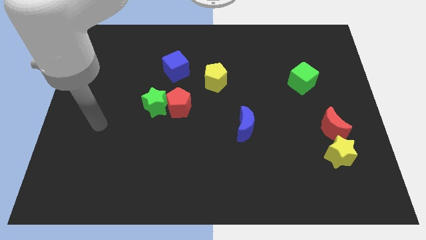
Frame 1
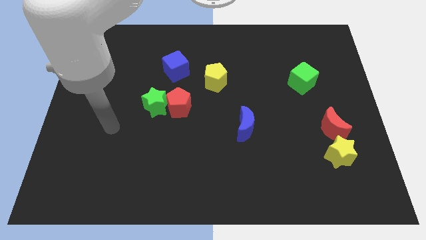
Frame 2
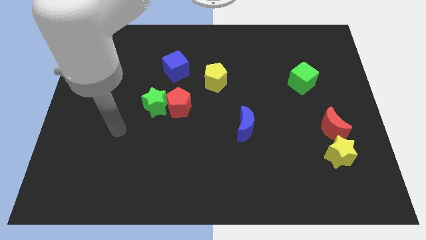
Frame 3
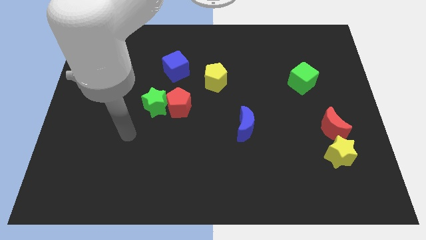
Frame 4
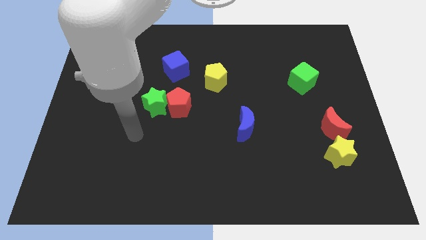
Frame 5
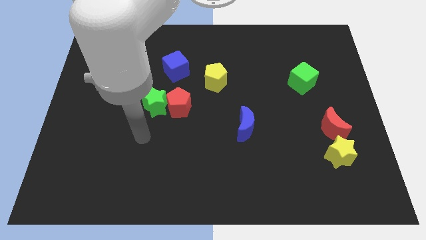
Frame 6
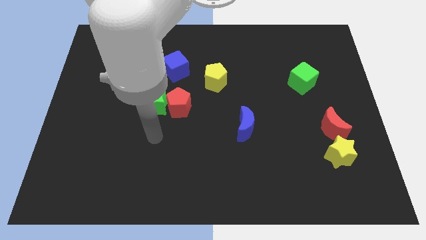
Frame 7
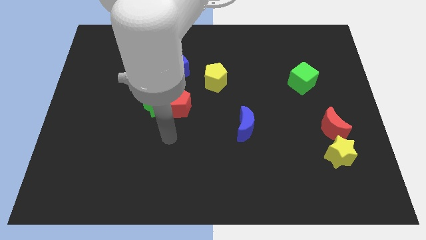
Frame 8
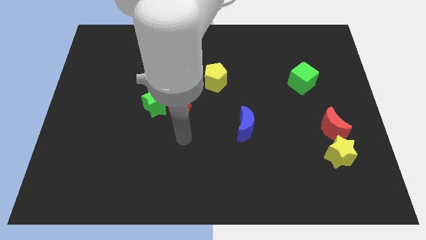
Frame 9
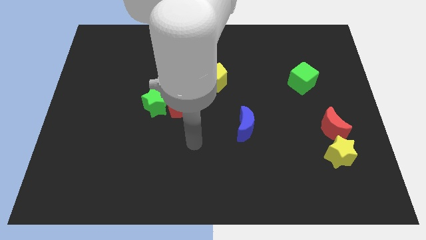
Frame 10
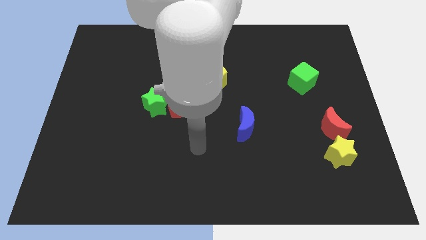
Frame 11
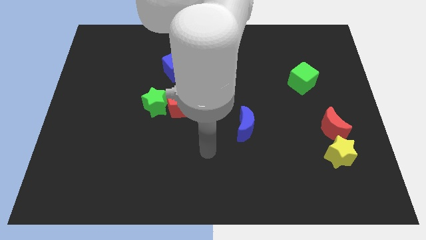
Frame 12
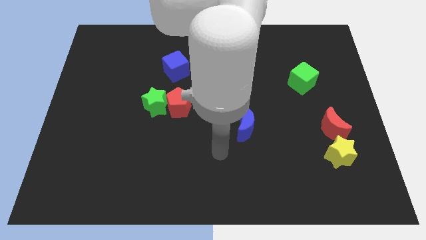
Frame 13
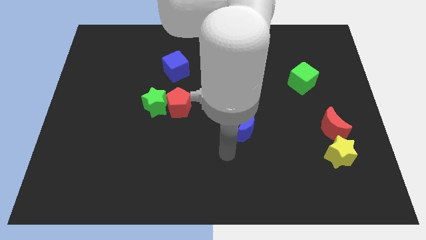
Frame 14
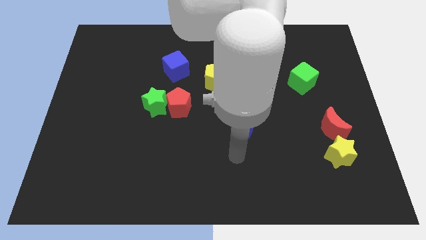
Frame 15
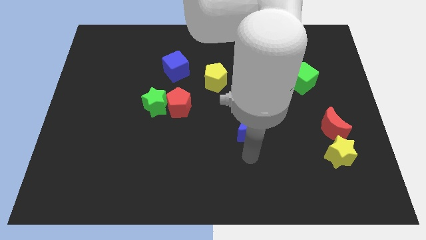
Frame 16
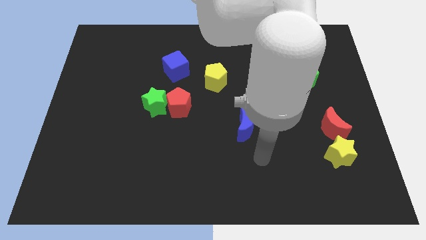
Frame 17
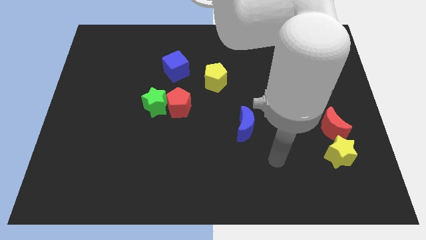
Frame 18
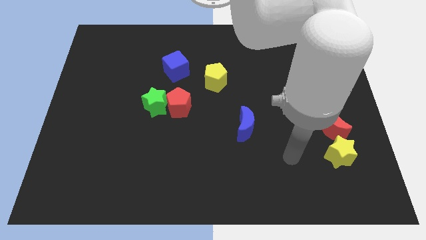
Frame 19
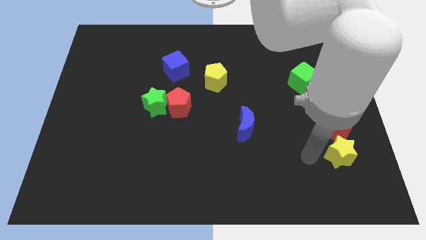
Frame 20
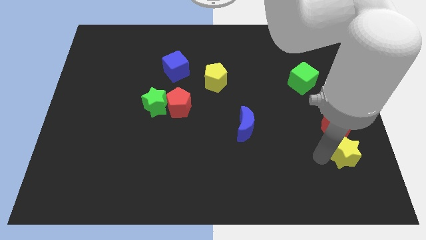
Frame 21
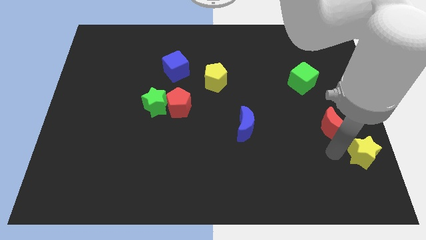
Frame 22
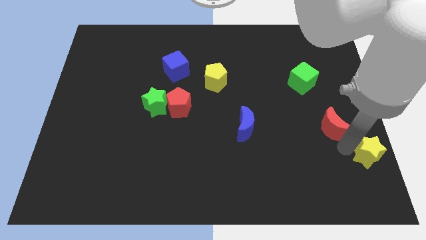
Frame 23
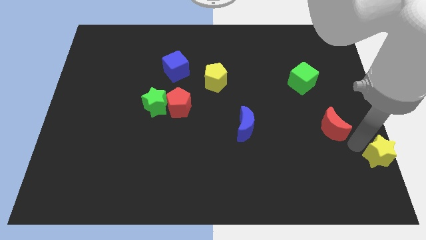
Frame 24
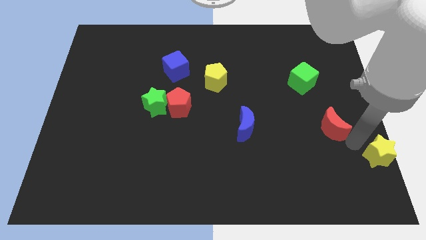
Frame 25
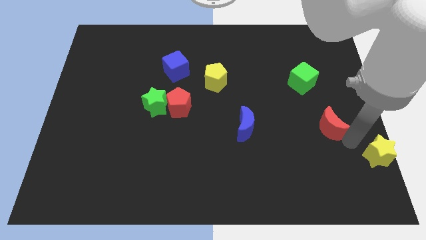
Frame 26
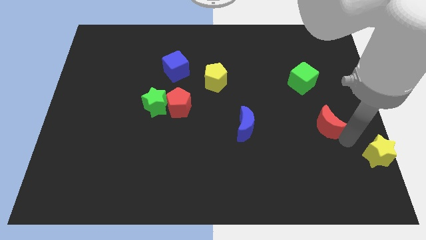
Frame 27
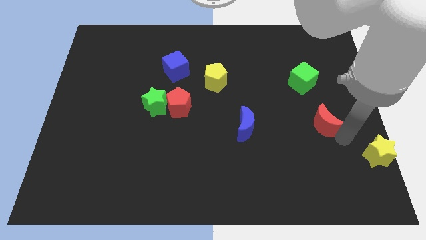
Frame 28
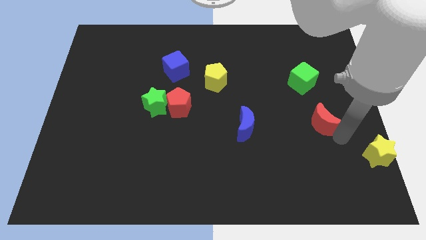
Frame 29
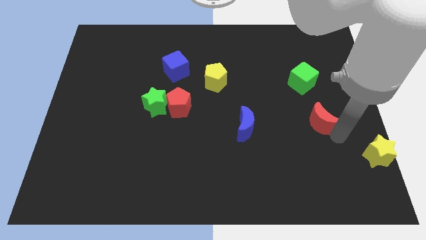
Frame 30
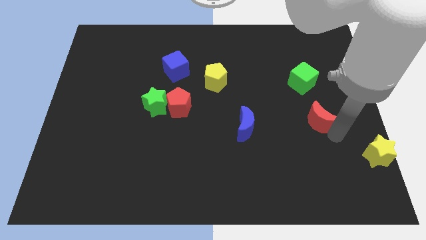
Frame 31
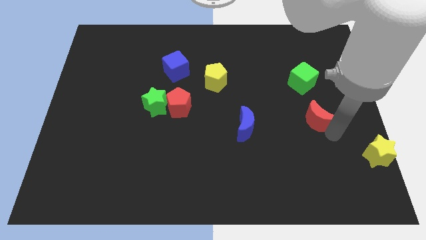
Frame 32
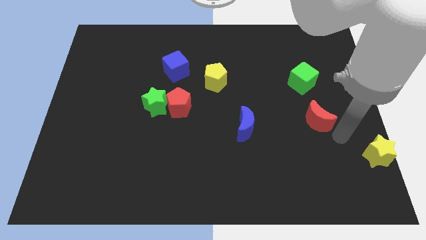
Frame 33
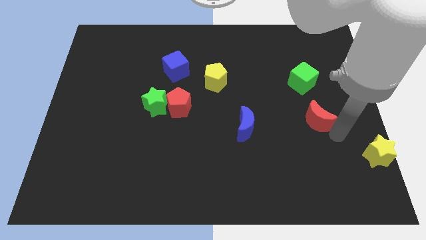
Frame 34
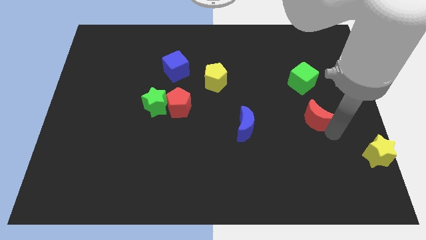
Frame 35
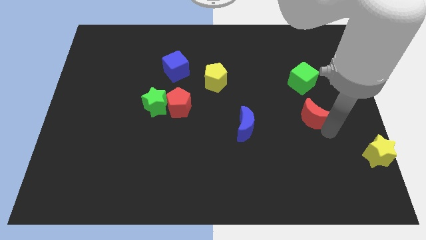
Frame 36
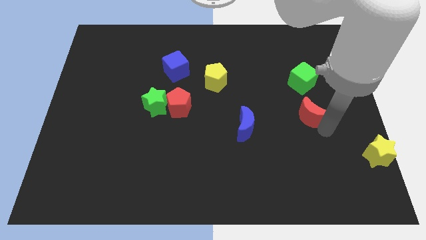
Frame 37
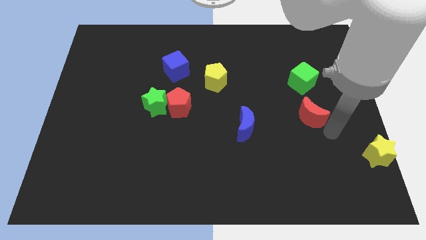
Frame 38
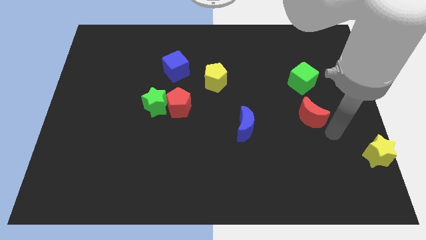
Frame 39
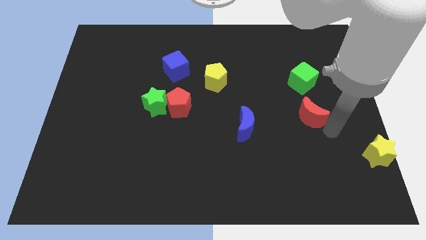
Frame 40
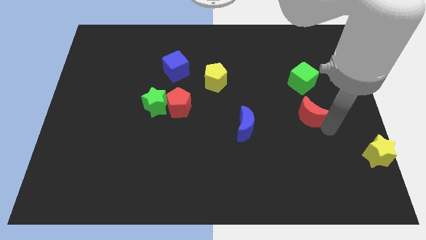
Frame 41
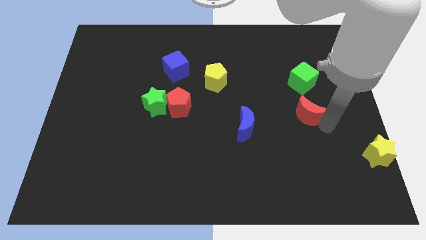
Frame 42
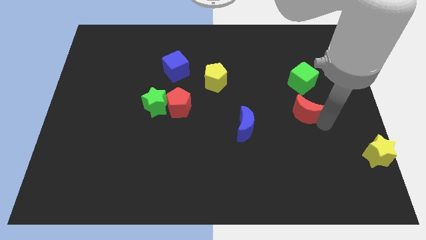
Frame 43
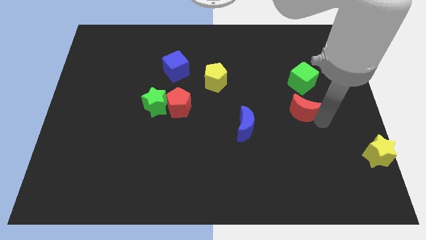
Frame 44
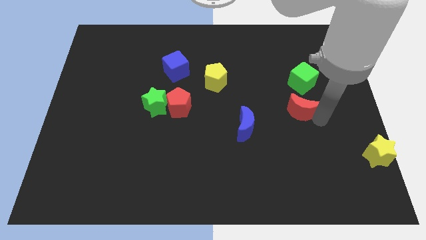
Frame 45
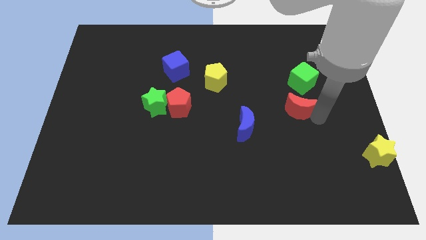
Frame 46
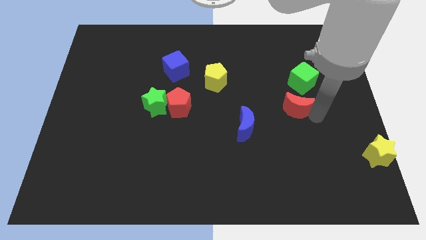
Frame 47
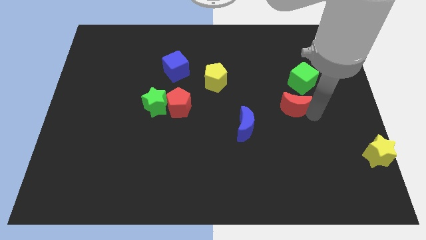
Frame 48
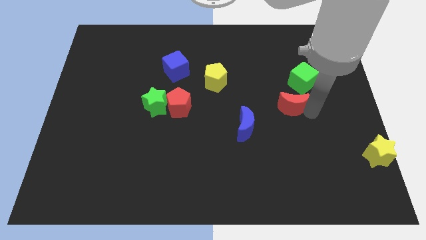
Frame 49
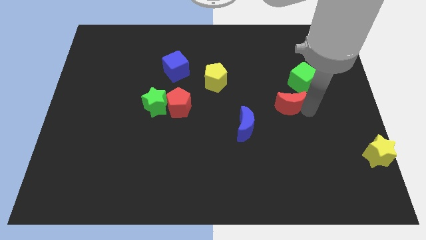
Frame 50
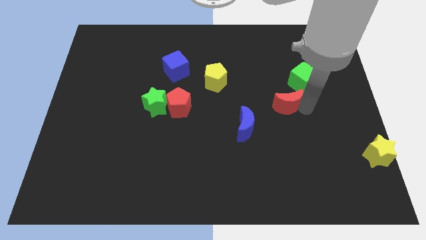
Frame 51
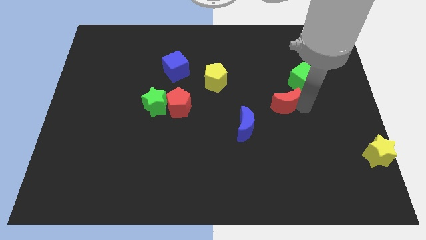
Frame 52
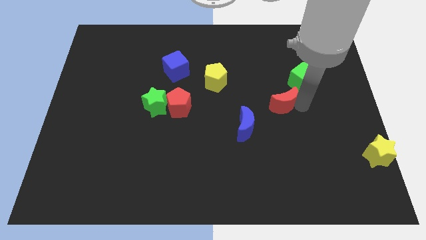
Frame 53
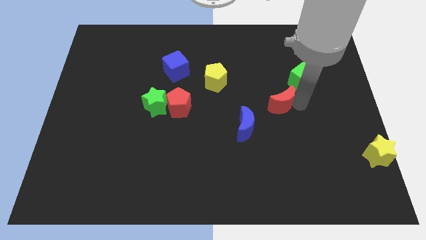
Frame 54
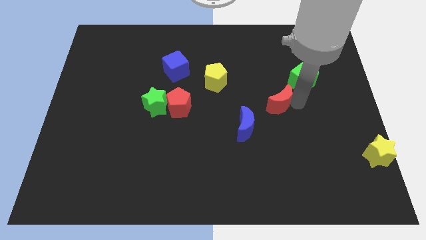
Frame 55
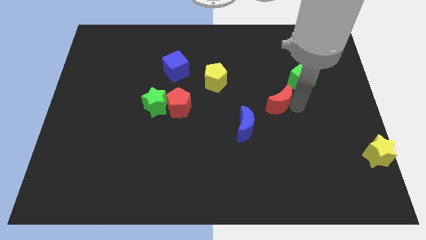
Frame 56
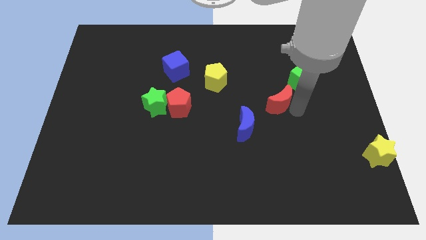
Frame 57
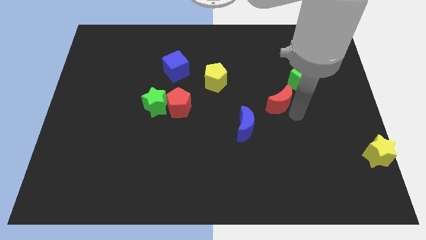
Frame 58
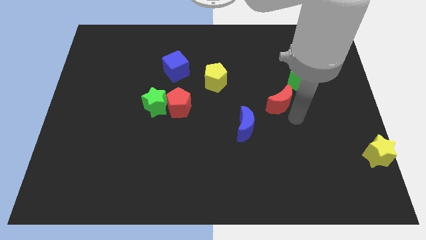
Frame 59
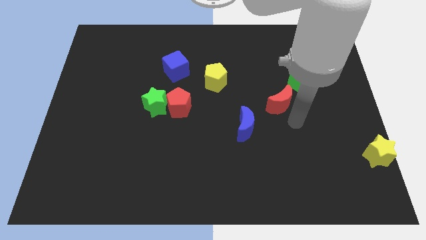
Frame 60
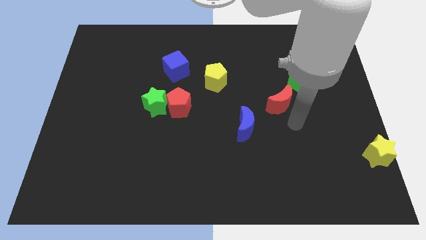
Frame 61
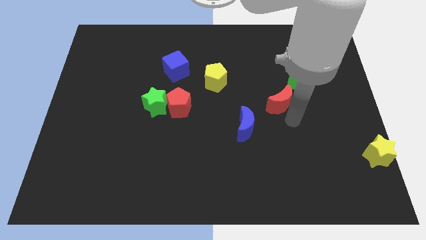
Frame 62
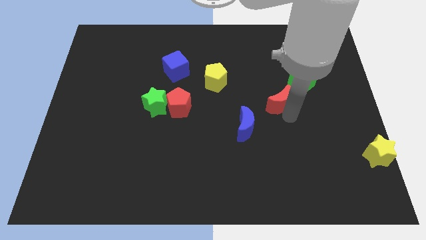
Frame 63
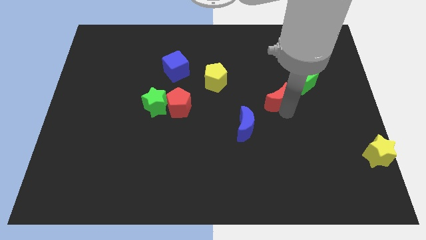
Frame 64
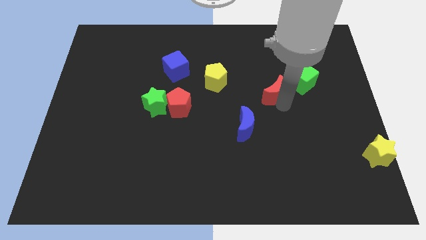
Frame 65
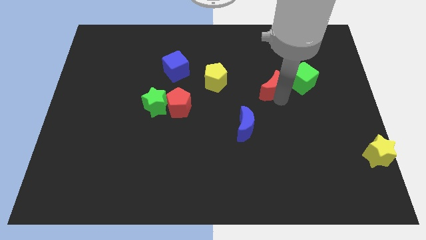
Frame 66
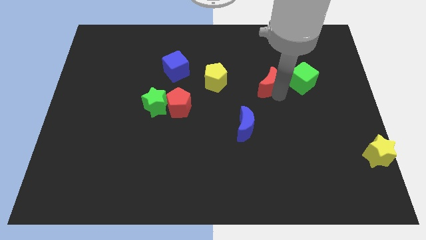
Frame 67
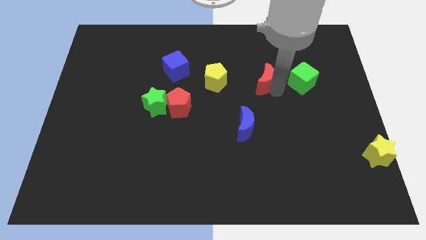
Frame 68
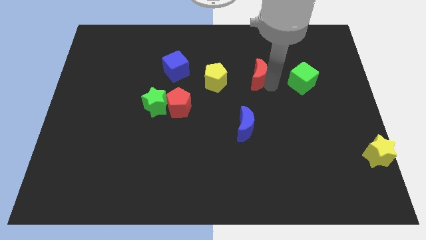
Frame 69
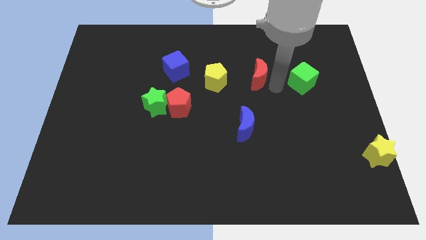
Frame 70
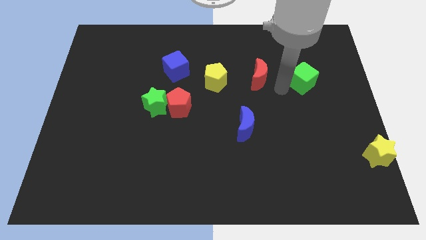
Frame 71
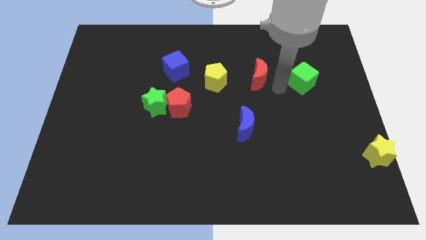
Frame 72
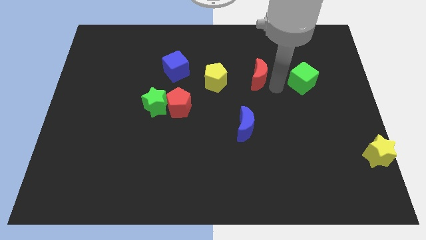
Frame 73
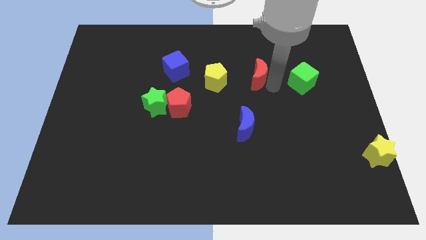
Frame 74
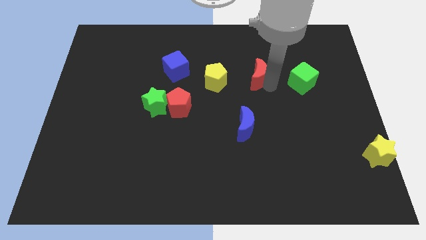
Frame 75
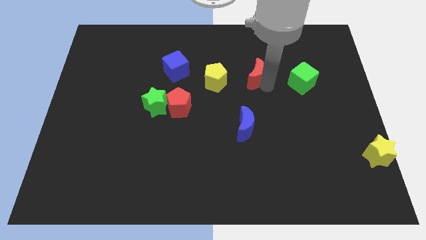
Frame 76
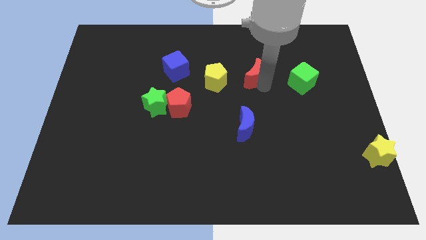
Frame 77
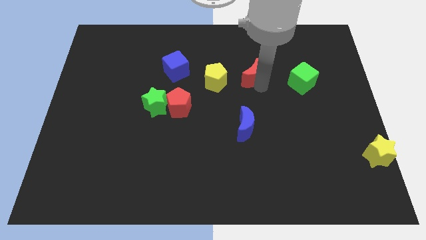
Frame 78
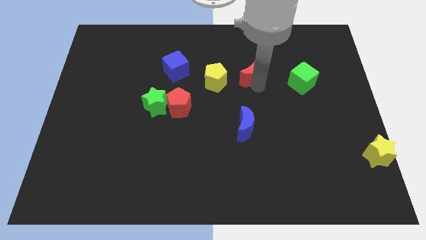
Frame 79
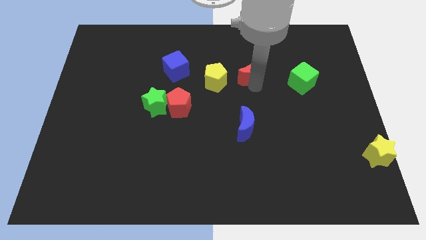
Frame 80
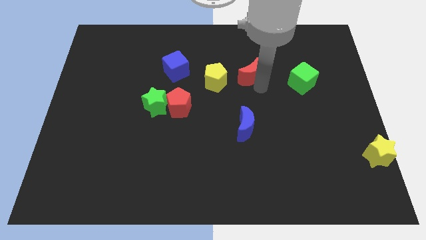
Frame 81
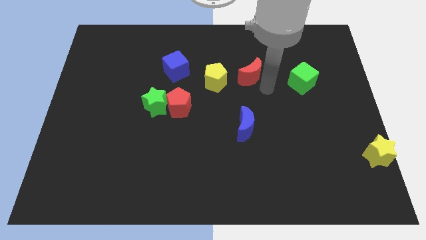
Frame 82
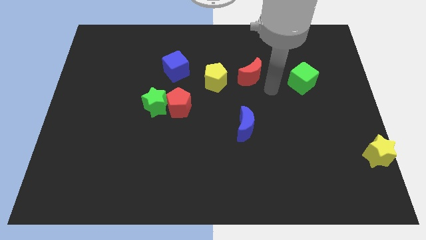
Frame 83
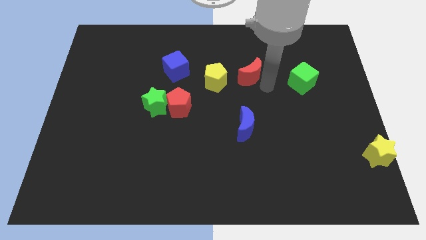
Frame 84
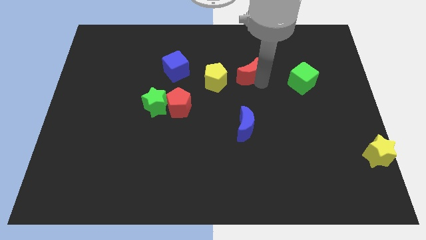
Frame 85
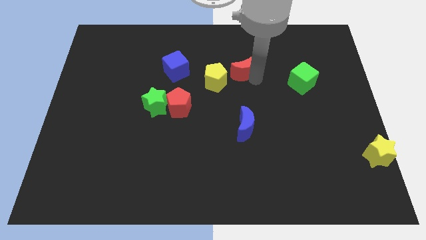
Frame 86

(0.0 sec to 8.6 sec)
put the red moon to the top right of the yellow pentagon
